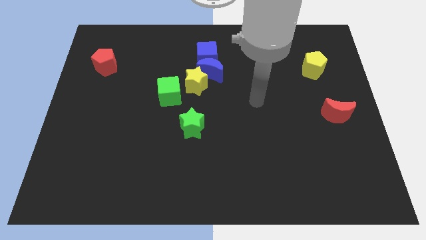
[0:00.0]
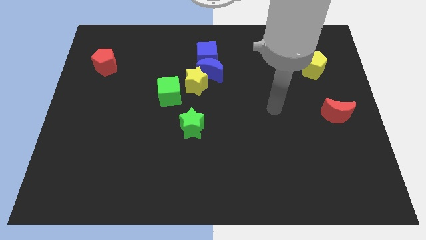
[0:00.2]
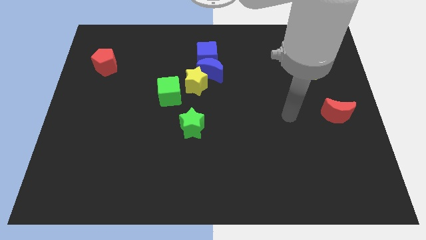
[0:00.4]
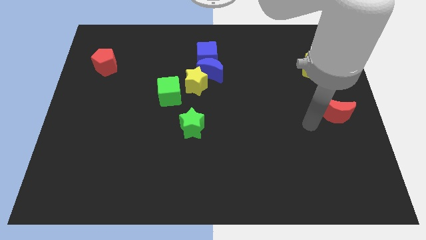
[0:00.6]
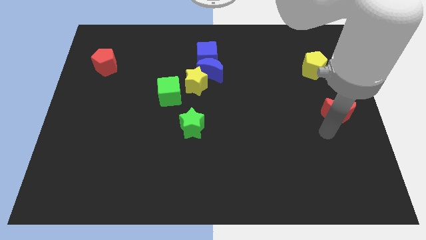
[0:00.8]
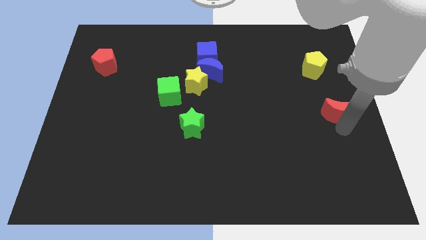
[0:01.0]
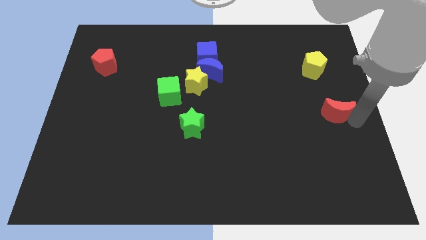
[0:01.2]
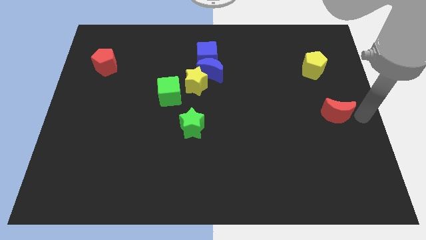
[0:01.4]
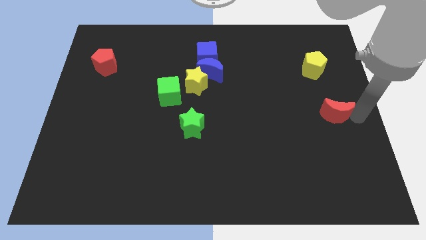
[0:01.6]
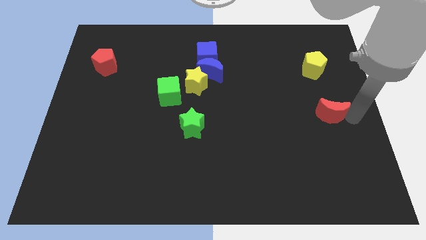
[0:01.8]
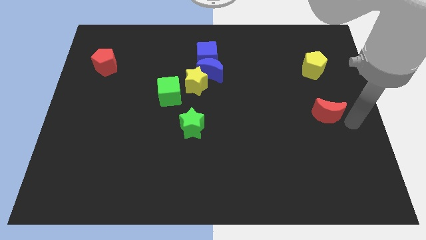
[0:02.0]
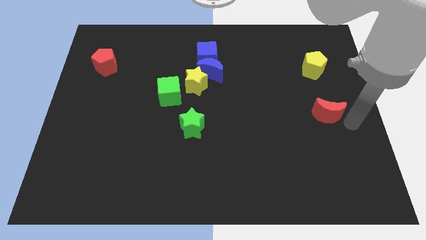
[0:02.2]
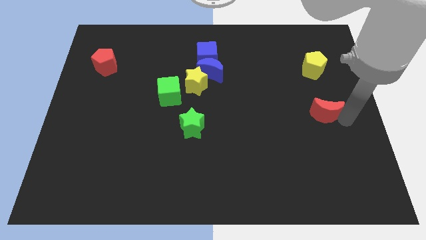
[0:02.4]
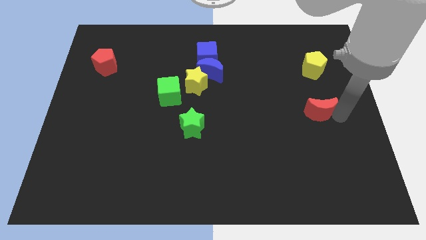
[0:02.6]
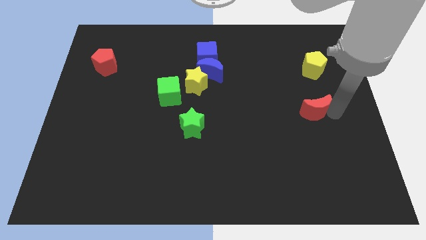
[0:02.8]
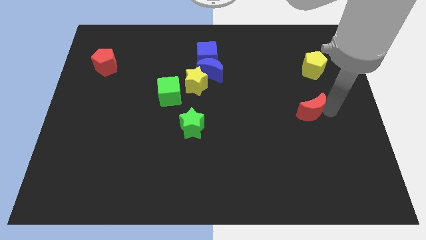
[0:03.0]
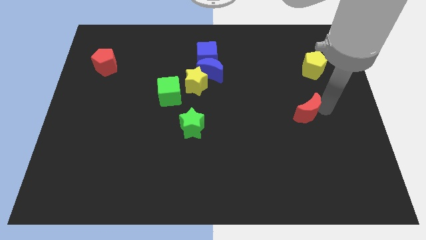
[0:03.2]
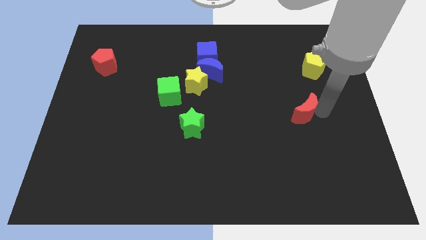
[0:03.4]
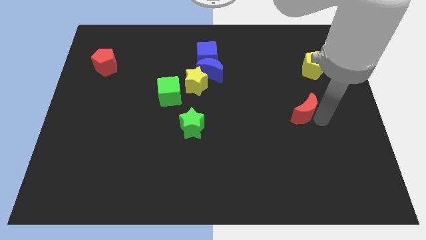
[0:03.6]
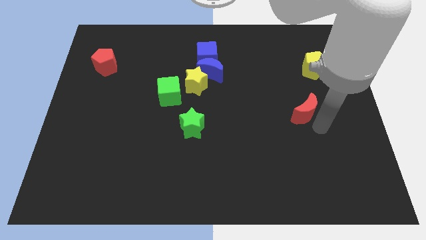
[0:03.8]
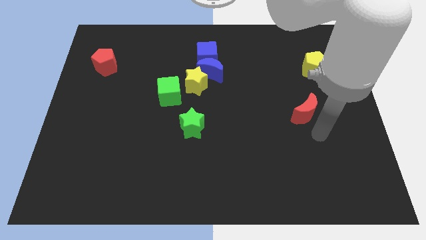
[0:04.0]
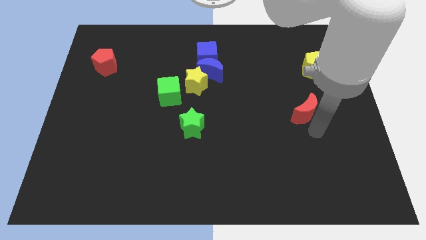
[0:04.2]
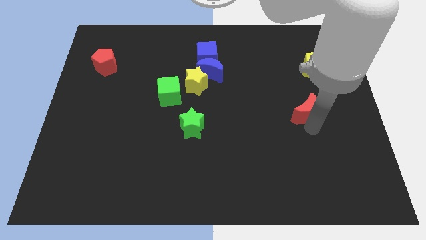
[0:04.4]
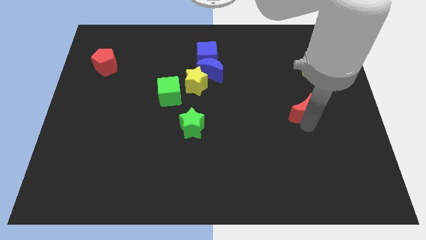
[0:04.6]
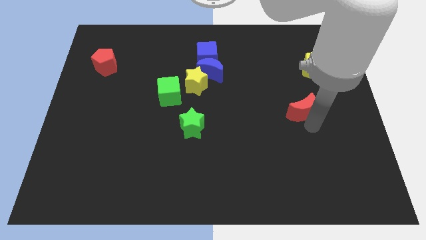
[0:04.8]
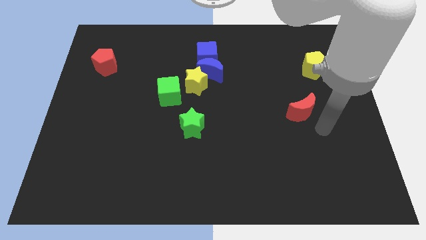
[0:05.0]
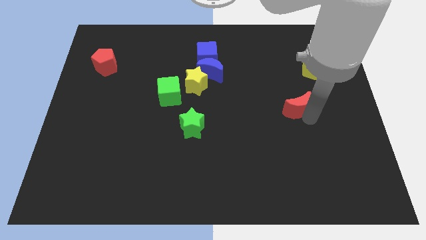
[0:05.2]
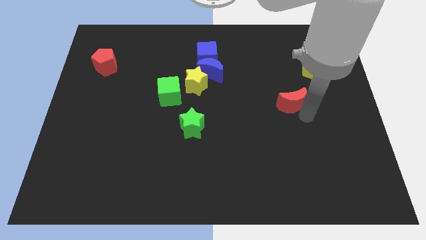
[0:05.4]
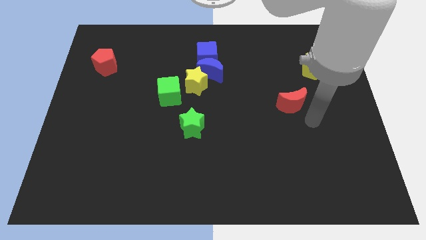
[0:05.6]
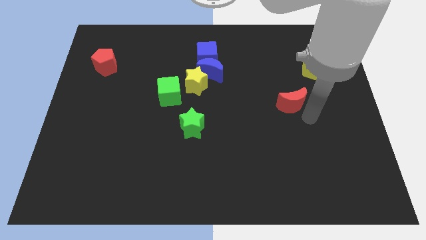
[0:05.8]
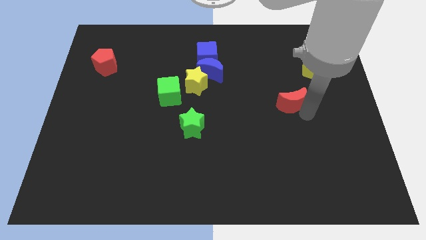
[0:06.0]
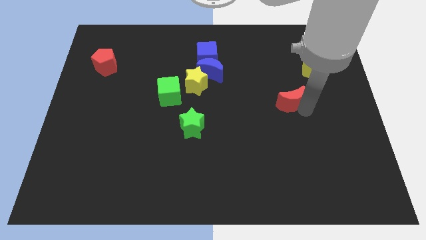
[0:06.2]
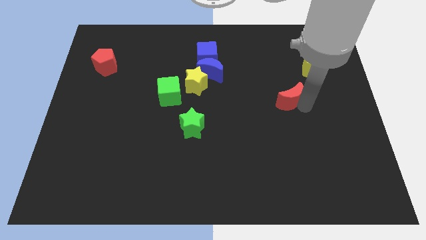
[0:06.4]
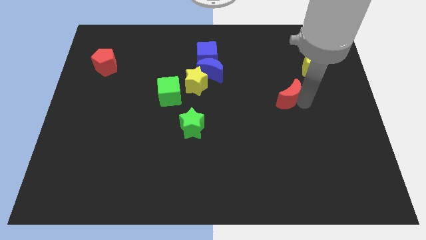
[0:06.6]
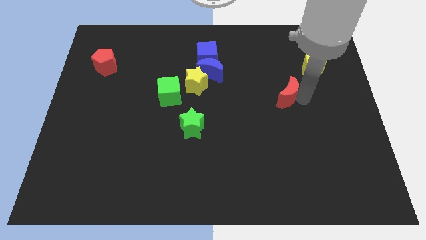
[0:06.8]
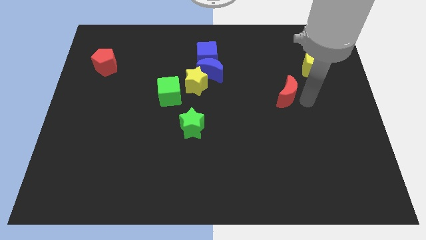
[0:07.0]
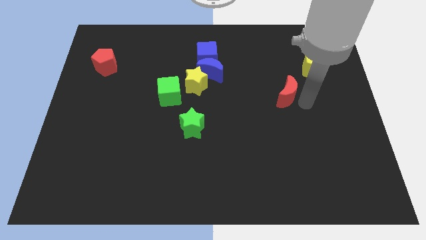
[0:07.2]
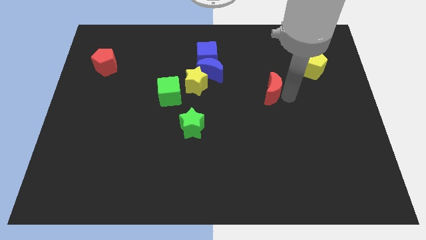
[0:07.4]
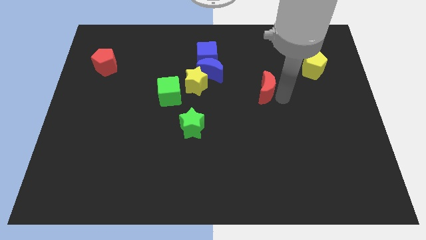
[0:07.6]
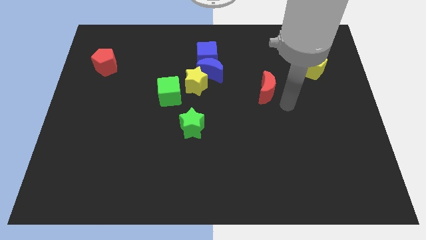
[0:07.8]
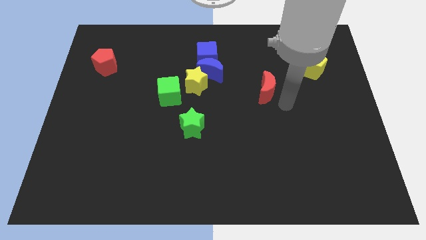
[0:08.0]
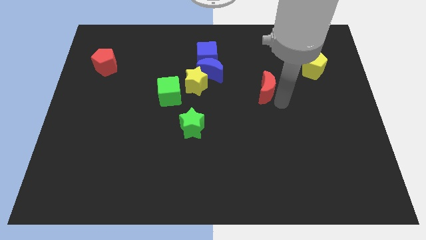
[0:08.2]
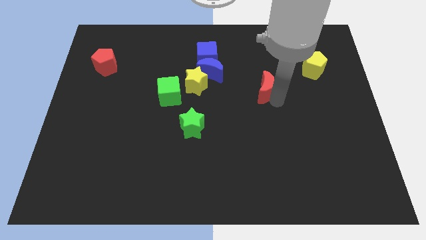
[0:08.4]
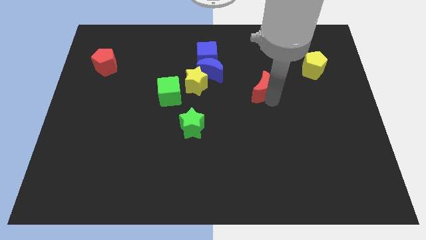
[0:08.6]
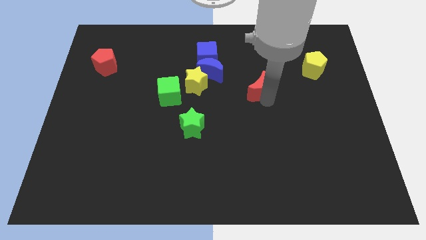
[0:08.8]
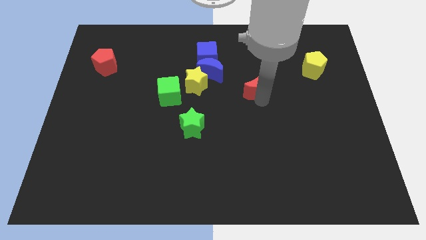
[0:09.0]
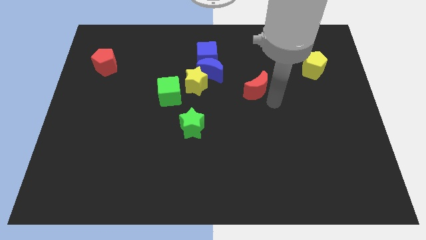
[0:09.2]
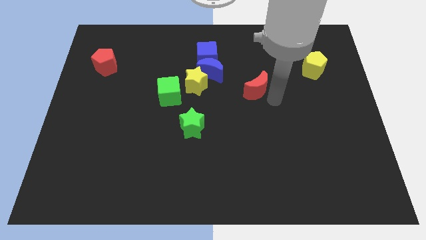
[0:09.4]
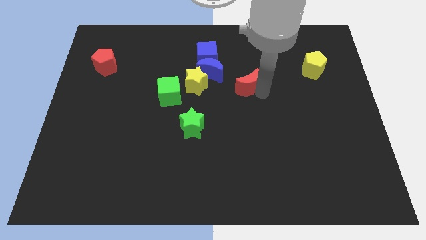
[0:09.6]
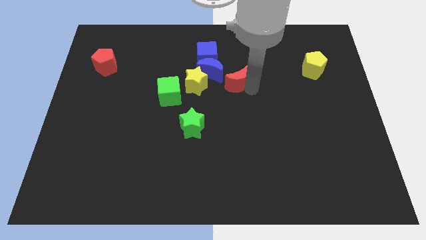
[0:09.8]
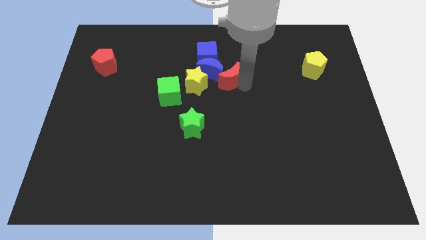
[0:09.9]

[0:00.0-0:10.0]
move the red moon to the blue moon

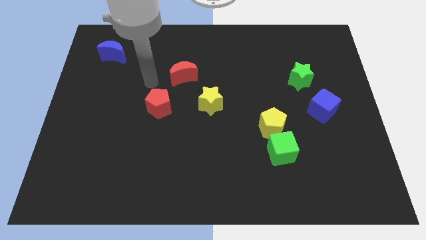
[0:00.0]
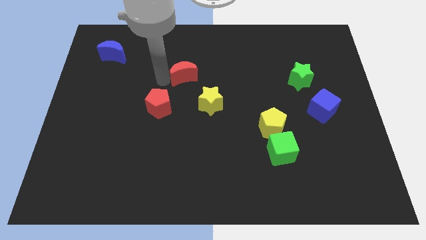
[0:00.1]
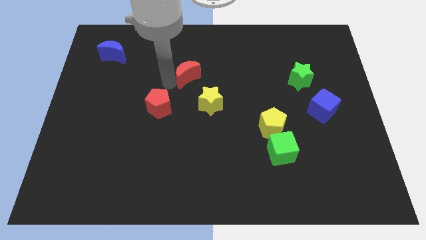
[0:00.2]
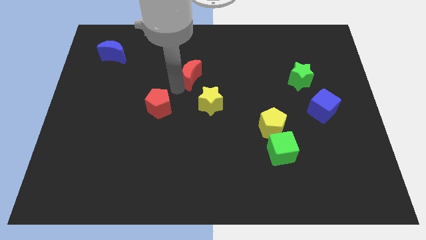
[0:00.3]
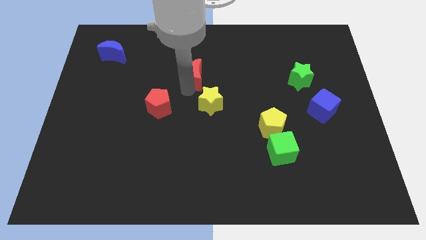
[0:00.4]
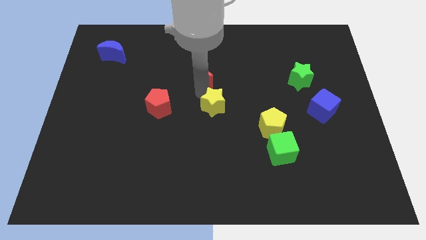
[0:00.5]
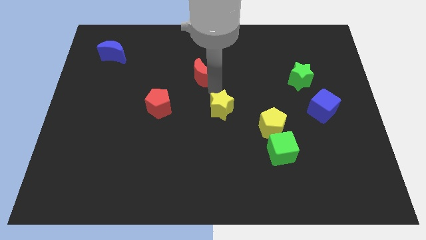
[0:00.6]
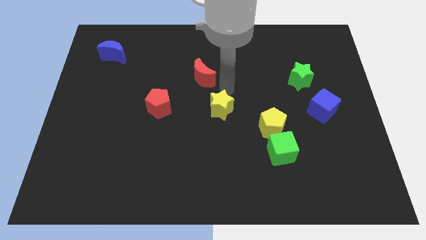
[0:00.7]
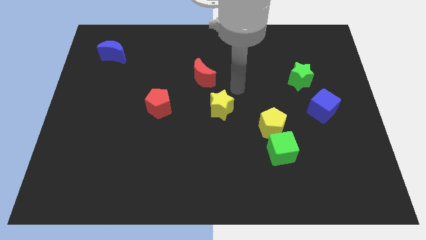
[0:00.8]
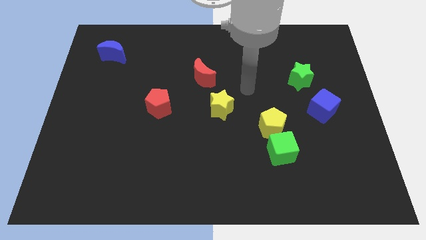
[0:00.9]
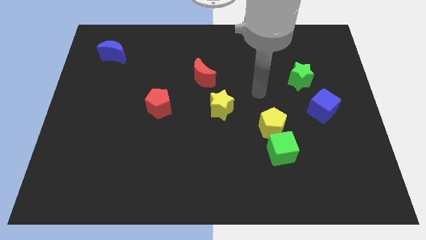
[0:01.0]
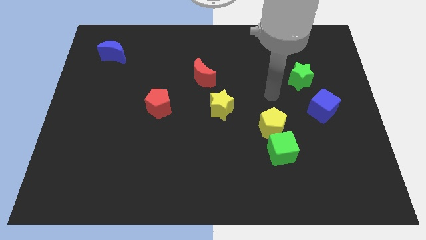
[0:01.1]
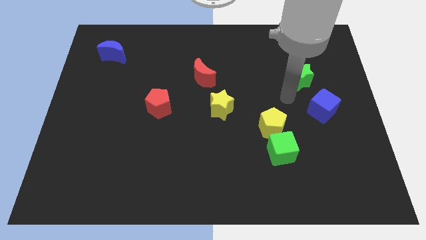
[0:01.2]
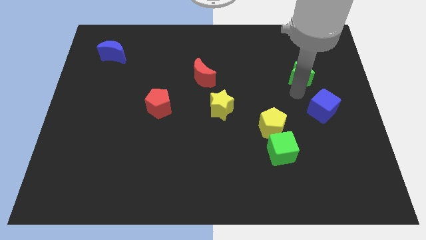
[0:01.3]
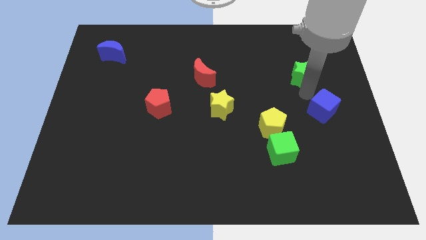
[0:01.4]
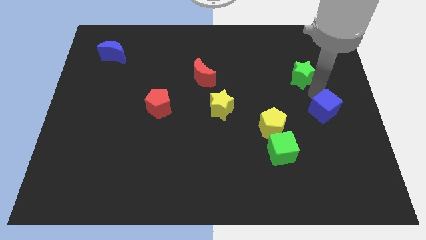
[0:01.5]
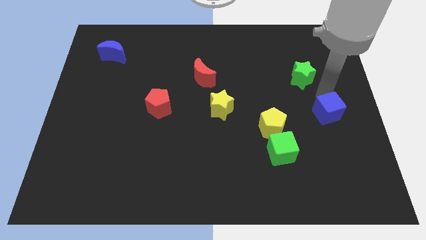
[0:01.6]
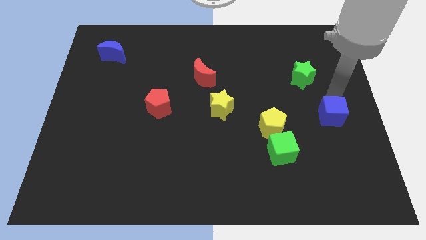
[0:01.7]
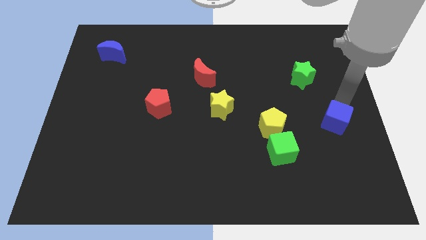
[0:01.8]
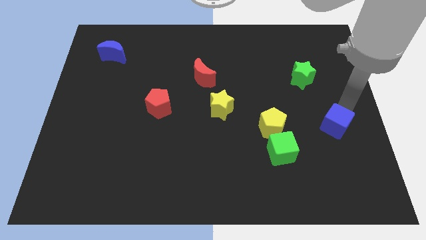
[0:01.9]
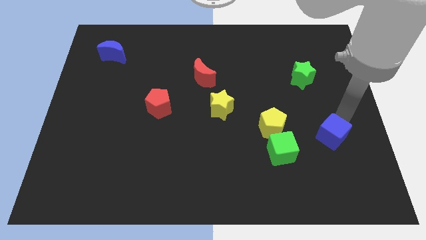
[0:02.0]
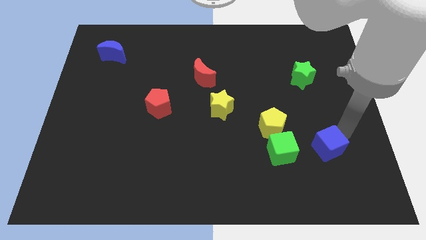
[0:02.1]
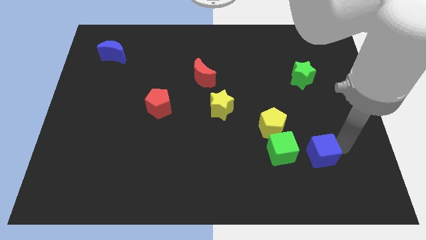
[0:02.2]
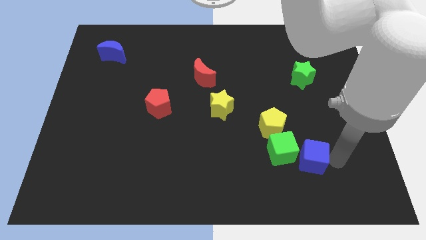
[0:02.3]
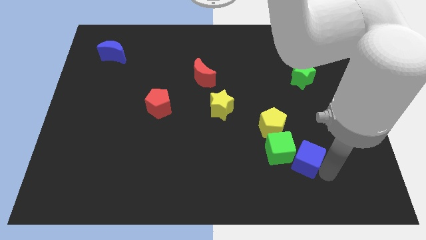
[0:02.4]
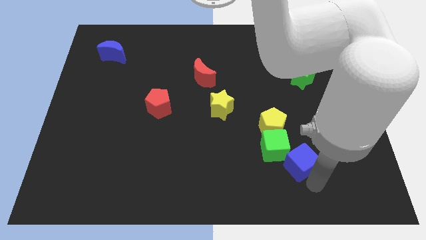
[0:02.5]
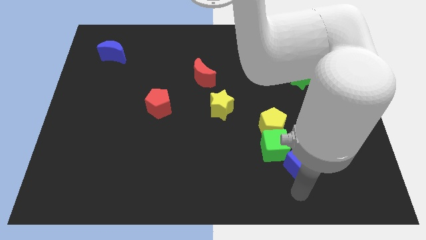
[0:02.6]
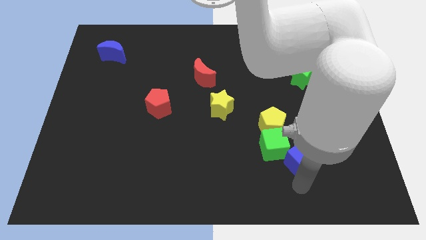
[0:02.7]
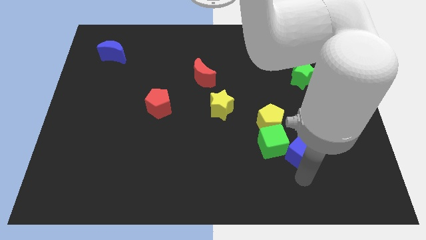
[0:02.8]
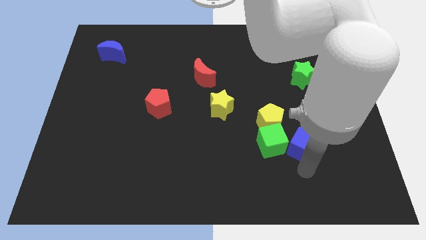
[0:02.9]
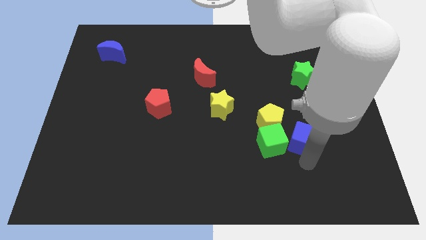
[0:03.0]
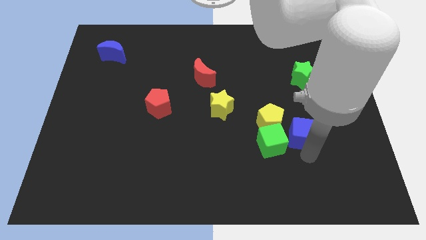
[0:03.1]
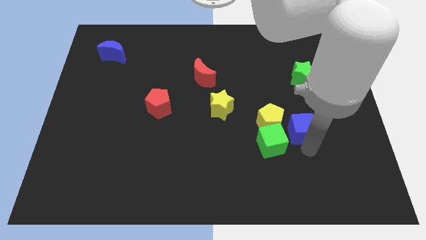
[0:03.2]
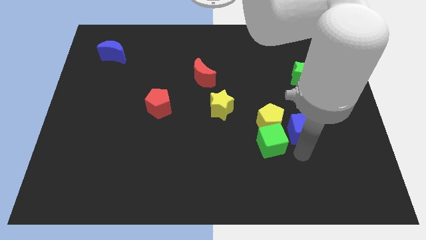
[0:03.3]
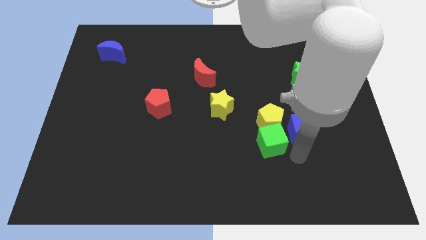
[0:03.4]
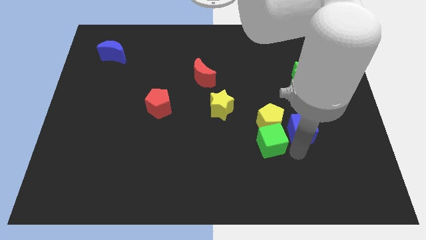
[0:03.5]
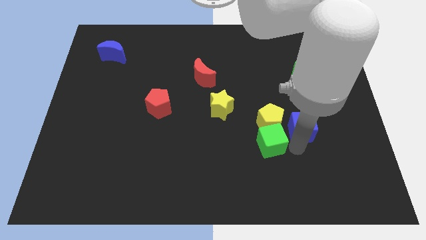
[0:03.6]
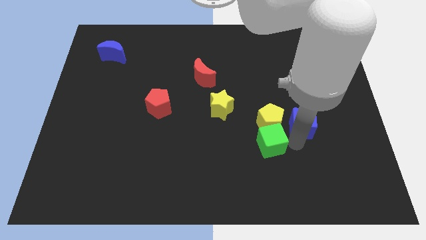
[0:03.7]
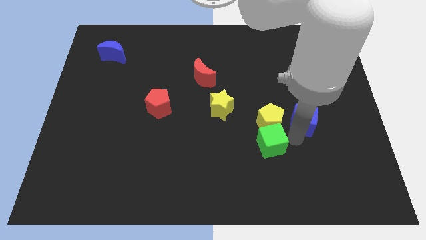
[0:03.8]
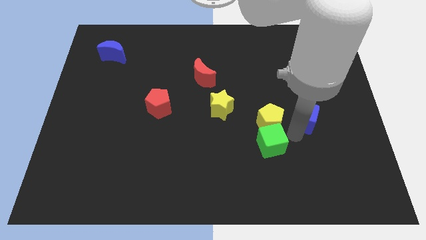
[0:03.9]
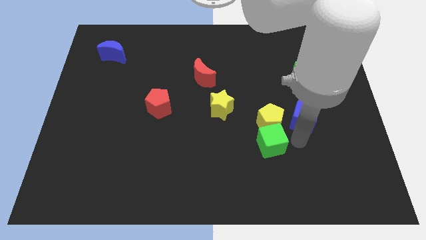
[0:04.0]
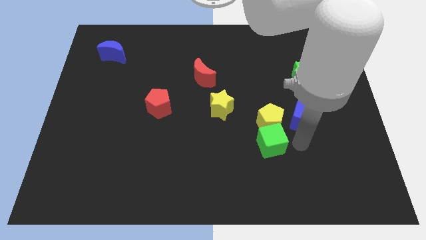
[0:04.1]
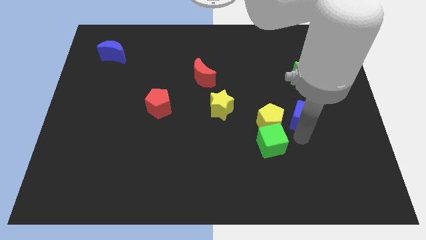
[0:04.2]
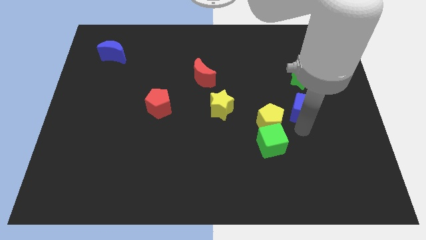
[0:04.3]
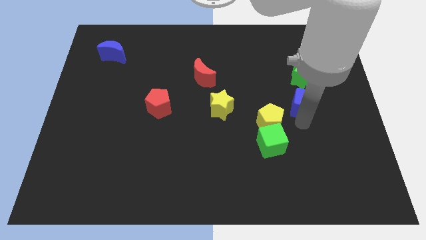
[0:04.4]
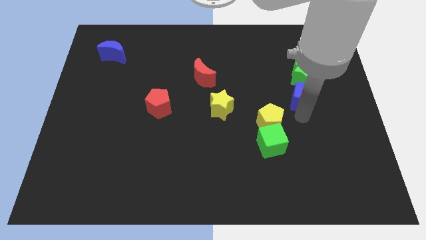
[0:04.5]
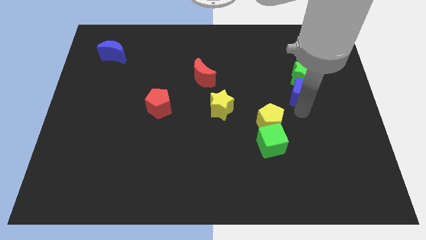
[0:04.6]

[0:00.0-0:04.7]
move the blue cube next to the green star
